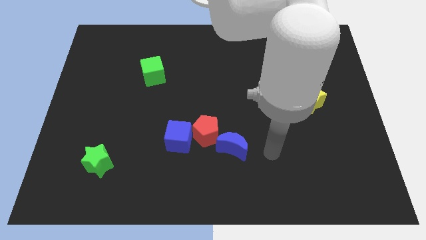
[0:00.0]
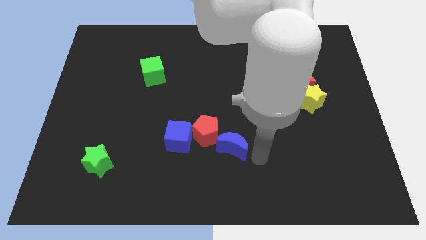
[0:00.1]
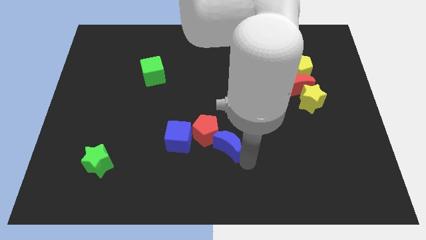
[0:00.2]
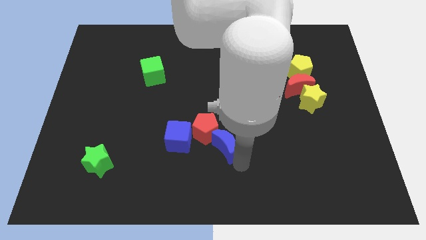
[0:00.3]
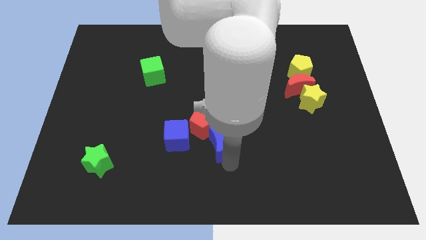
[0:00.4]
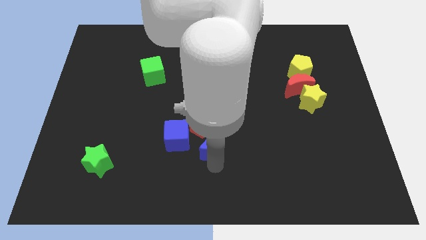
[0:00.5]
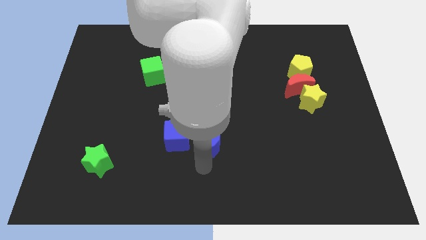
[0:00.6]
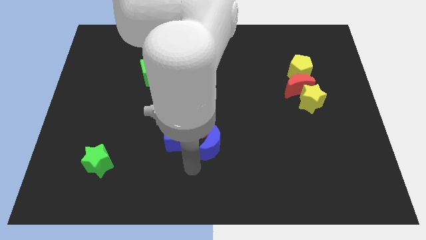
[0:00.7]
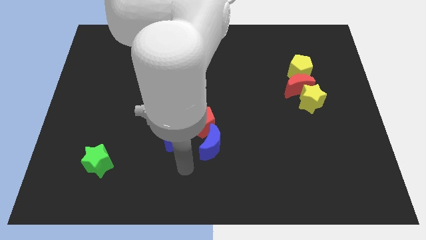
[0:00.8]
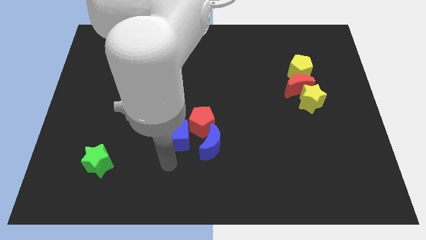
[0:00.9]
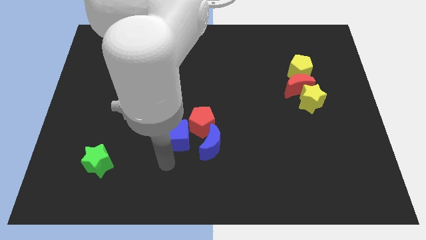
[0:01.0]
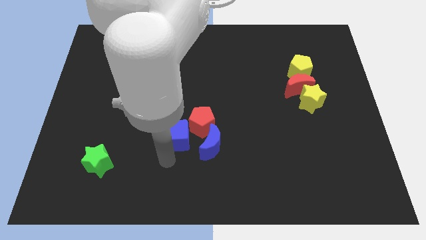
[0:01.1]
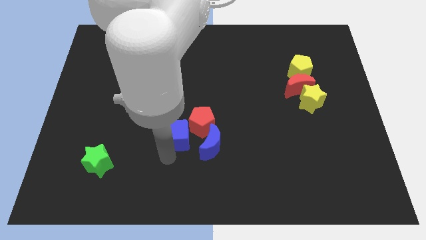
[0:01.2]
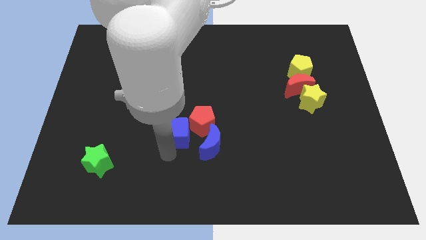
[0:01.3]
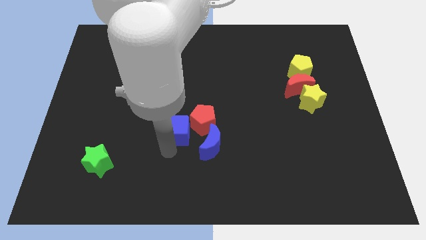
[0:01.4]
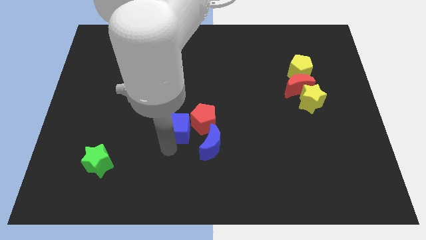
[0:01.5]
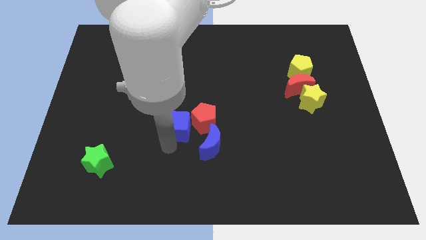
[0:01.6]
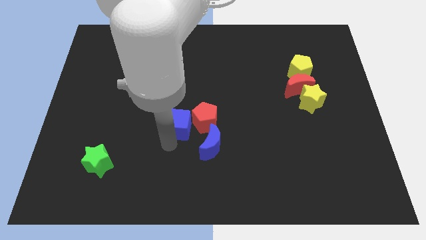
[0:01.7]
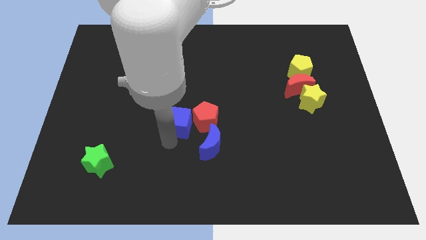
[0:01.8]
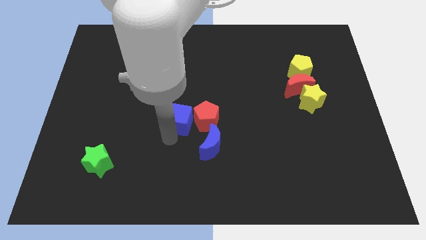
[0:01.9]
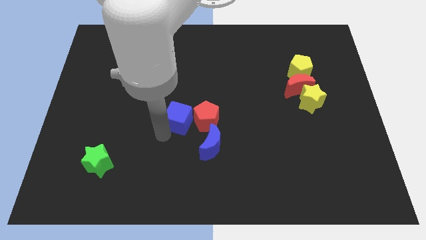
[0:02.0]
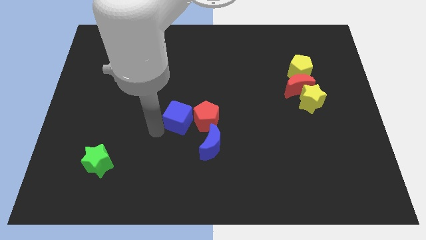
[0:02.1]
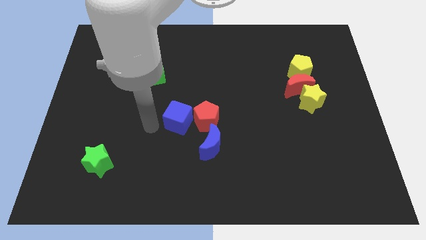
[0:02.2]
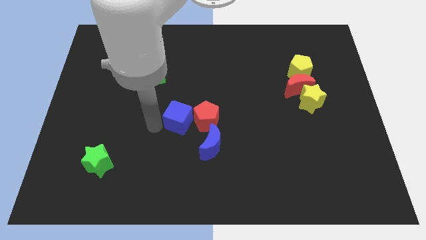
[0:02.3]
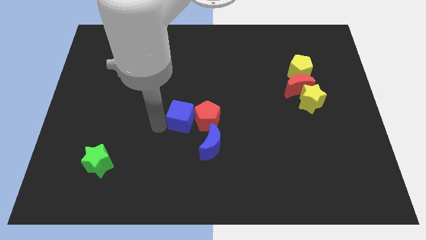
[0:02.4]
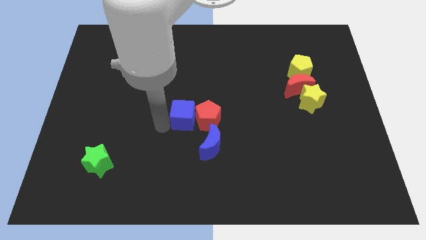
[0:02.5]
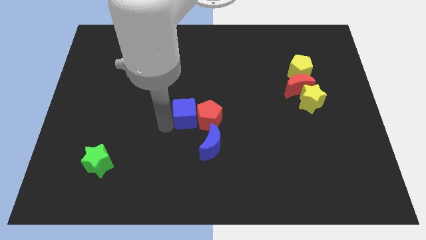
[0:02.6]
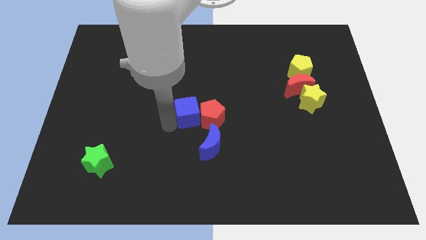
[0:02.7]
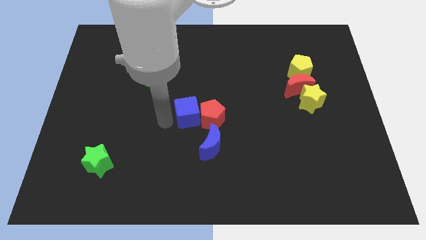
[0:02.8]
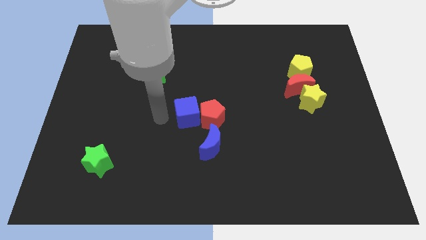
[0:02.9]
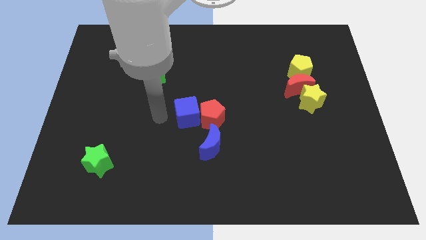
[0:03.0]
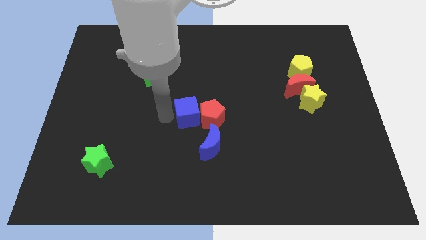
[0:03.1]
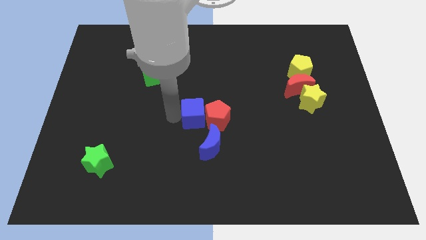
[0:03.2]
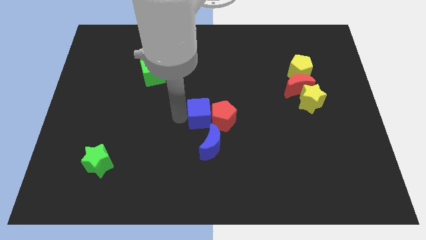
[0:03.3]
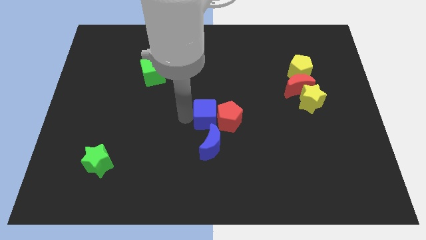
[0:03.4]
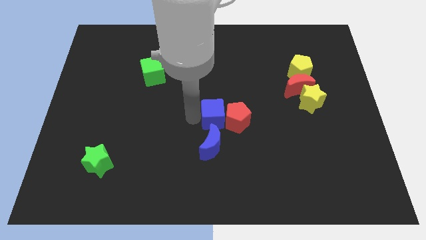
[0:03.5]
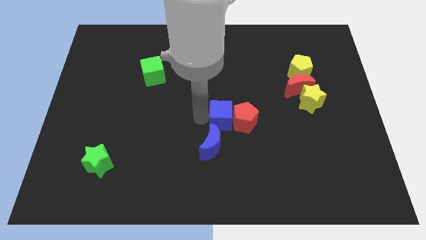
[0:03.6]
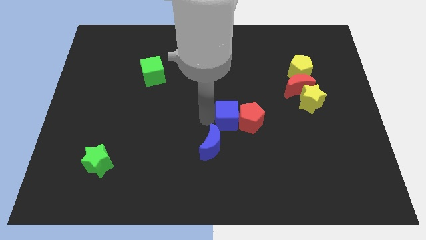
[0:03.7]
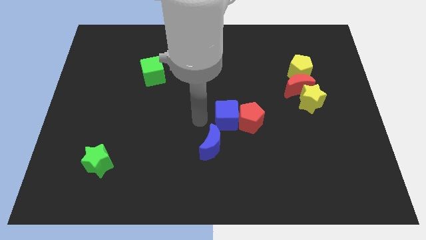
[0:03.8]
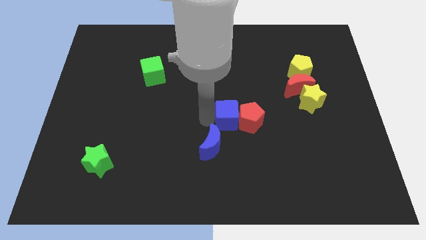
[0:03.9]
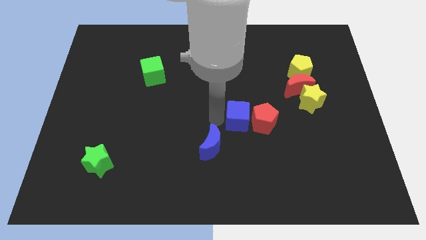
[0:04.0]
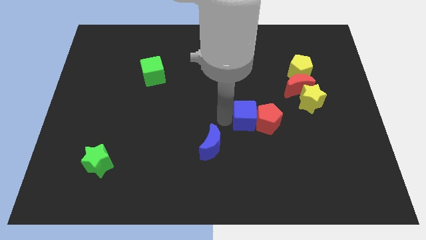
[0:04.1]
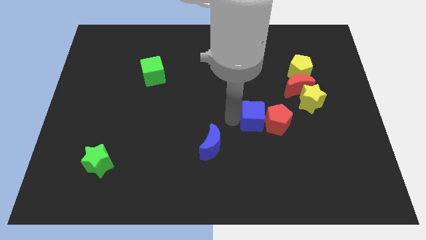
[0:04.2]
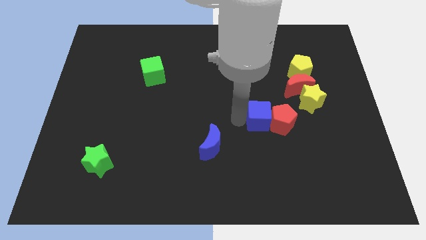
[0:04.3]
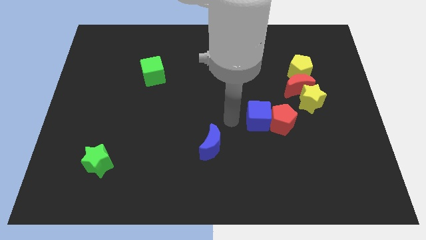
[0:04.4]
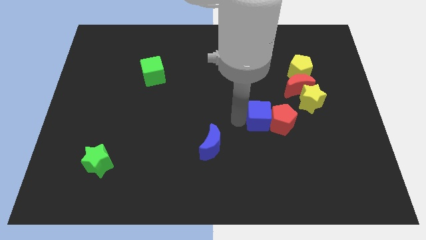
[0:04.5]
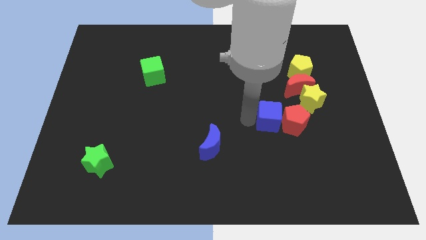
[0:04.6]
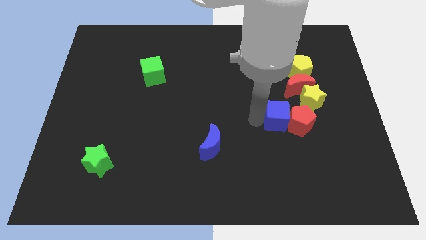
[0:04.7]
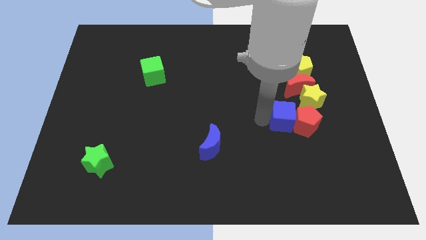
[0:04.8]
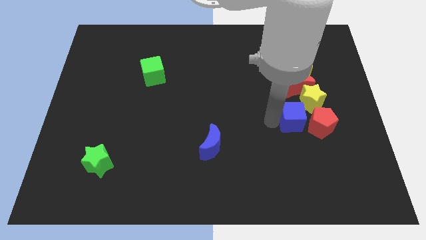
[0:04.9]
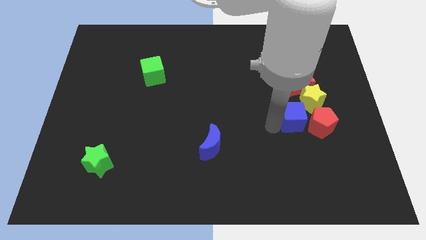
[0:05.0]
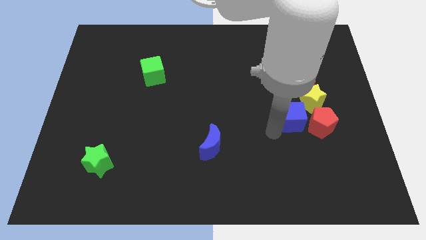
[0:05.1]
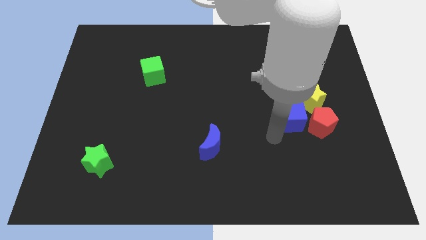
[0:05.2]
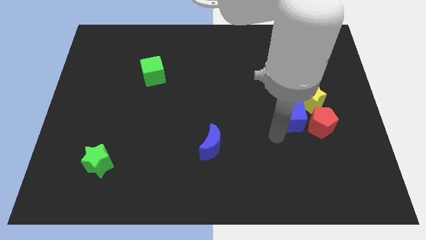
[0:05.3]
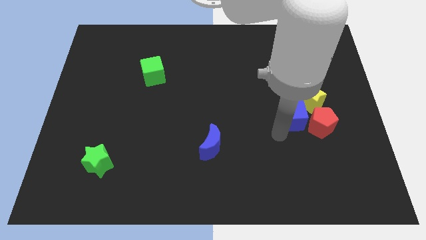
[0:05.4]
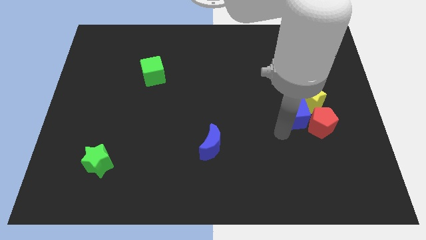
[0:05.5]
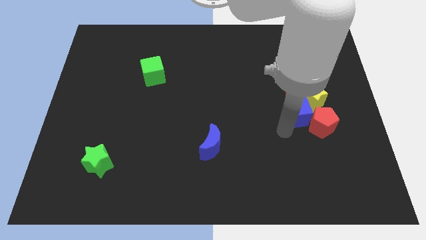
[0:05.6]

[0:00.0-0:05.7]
put the blue cube to the yellow star

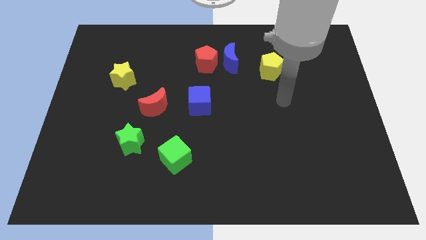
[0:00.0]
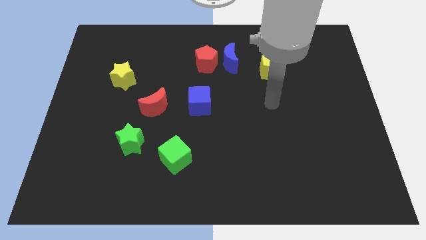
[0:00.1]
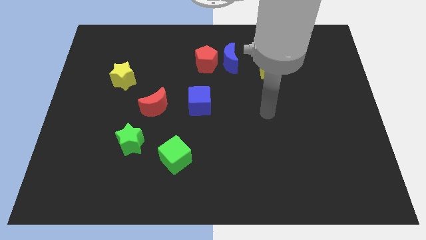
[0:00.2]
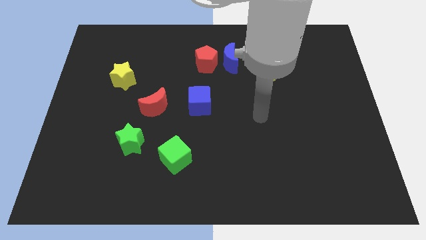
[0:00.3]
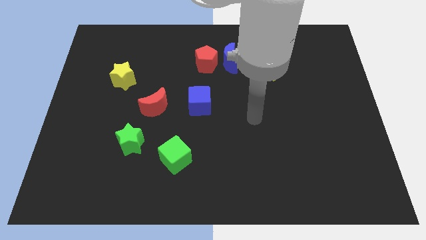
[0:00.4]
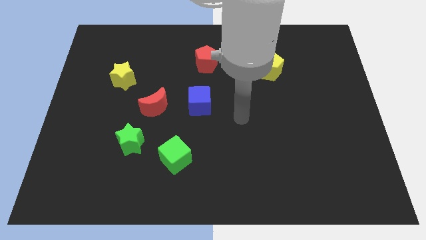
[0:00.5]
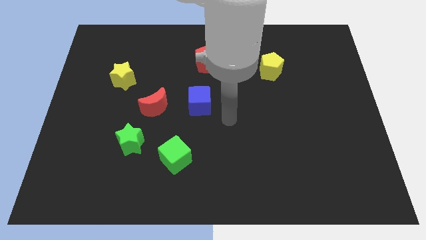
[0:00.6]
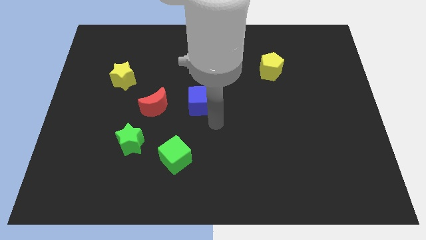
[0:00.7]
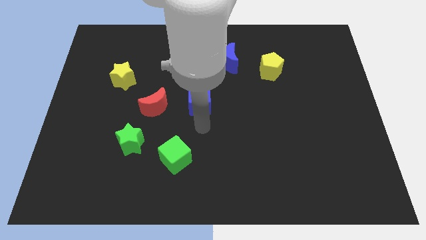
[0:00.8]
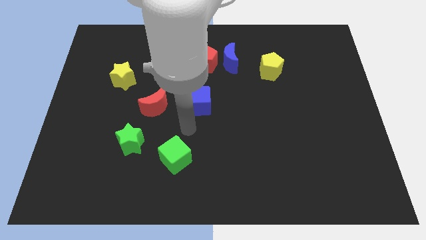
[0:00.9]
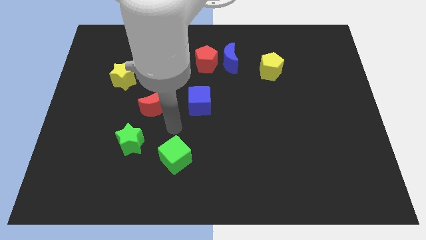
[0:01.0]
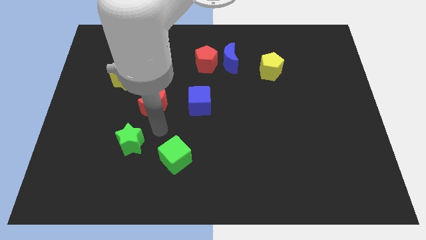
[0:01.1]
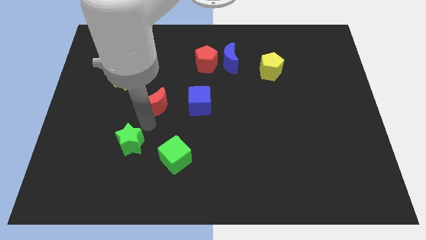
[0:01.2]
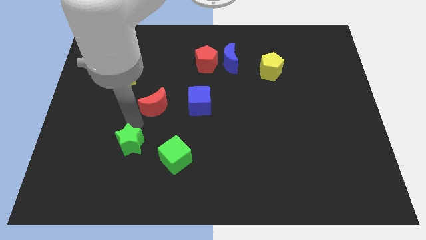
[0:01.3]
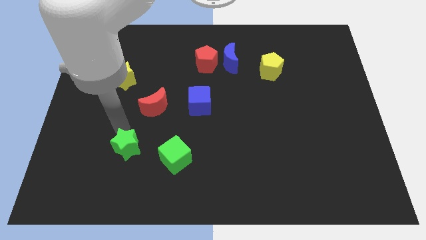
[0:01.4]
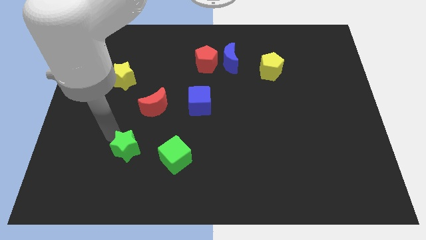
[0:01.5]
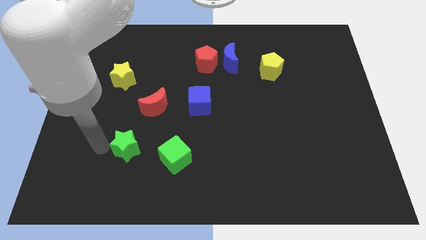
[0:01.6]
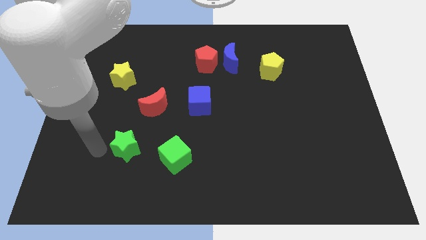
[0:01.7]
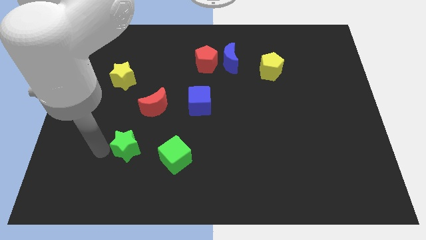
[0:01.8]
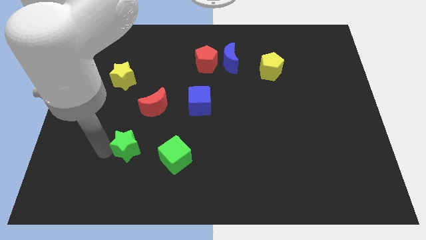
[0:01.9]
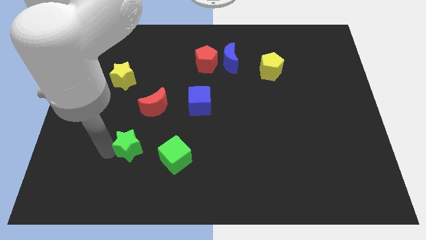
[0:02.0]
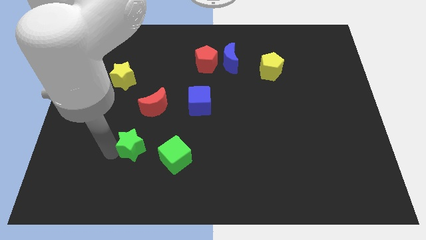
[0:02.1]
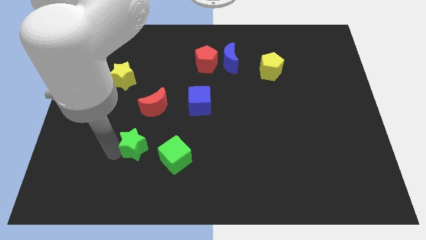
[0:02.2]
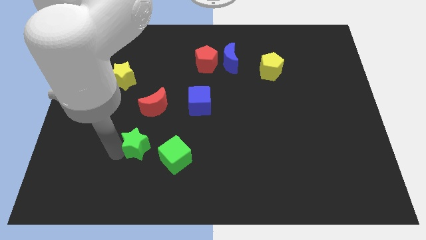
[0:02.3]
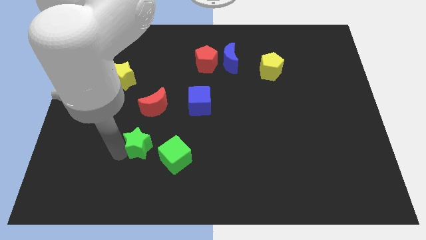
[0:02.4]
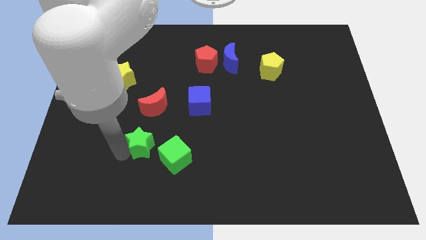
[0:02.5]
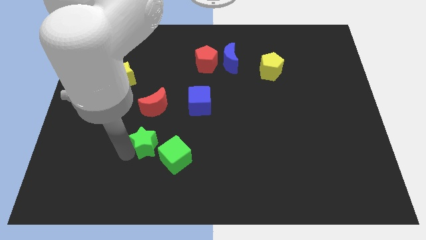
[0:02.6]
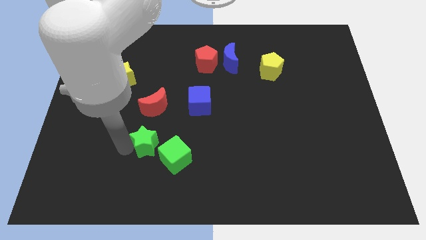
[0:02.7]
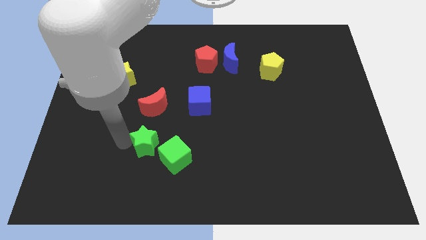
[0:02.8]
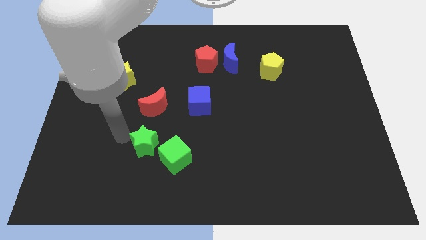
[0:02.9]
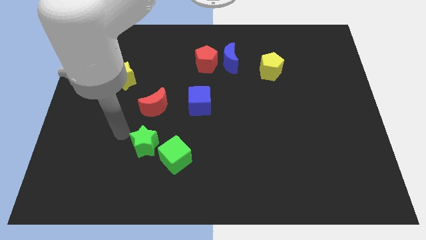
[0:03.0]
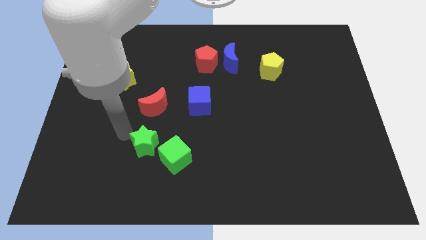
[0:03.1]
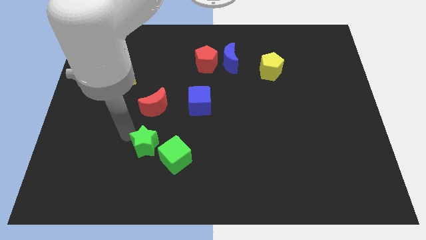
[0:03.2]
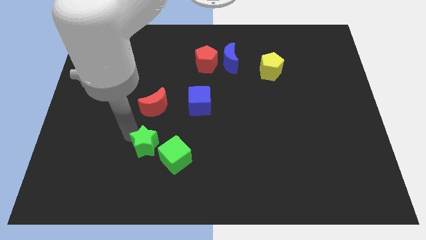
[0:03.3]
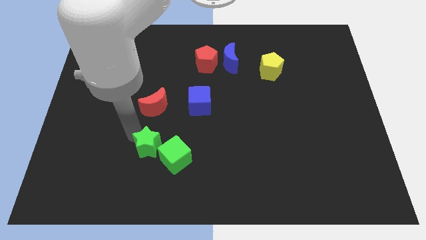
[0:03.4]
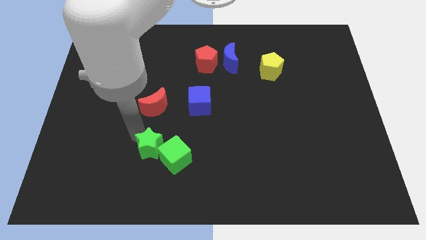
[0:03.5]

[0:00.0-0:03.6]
slide the green star next to the green cube
